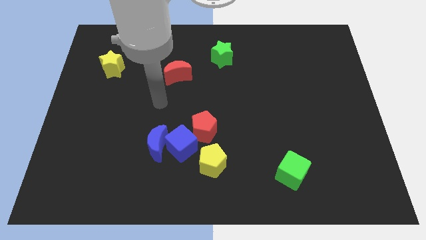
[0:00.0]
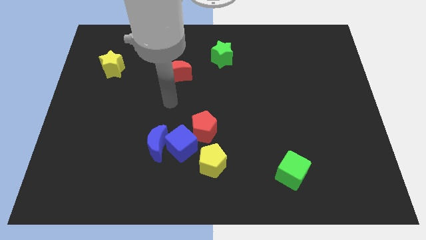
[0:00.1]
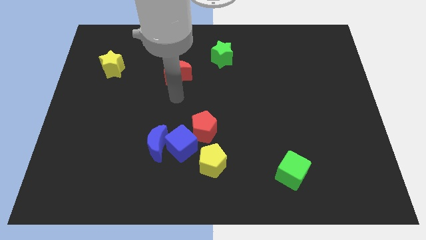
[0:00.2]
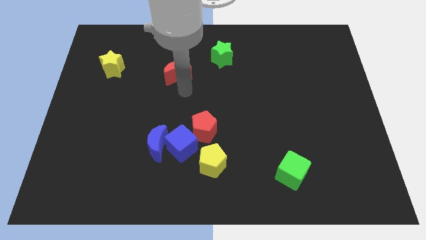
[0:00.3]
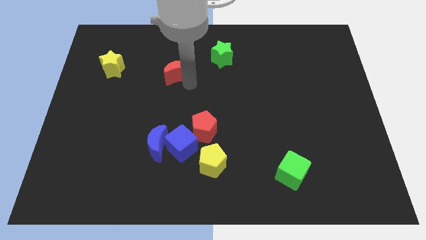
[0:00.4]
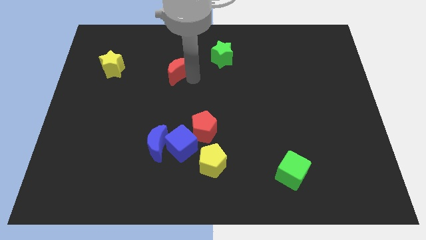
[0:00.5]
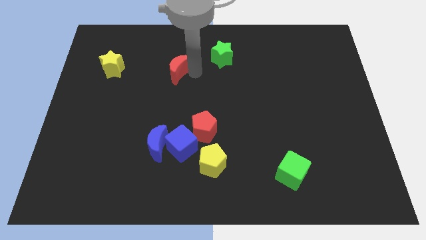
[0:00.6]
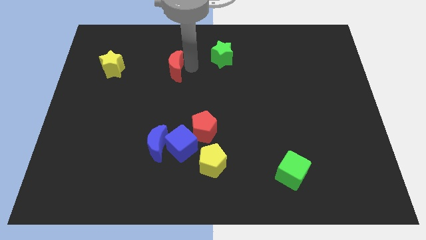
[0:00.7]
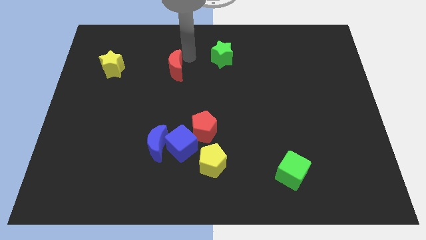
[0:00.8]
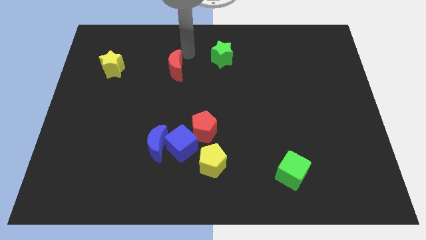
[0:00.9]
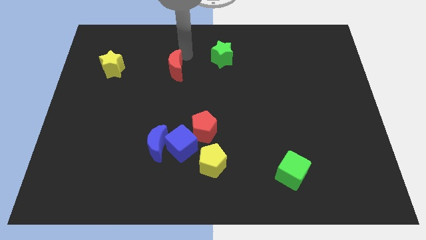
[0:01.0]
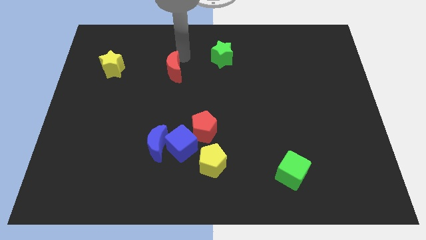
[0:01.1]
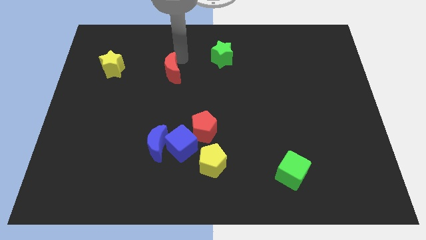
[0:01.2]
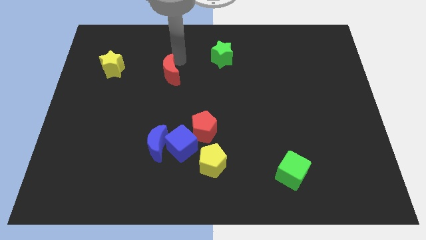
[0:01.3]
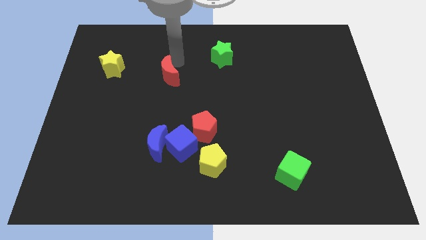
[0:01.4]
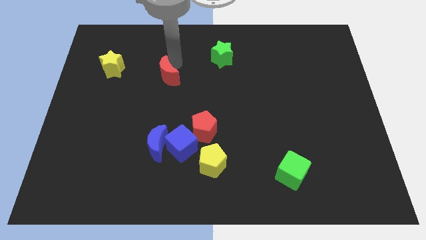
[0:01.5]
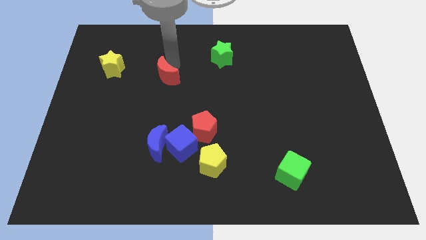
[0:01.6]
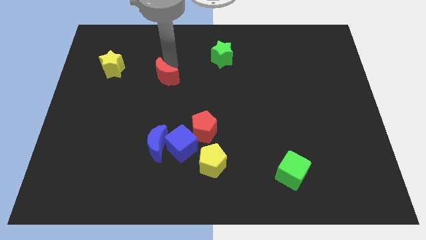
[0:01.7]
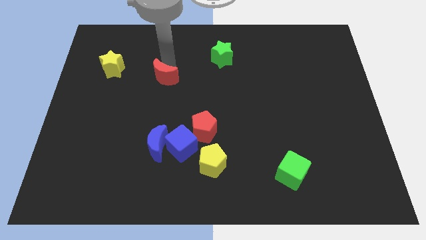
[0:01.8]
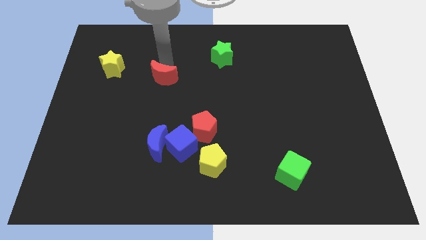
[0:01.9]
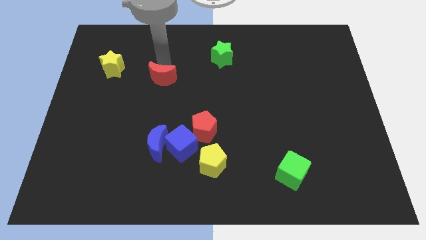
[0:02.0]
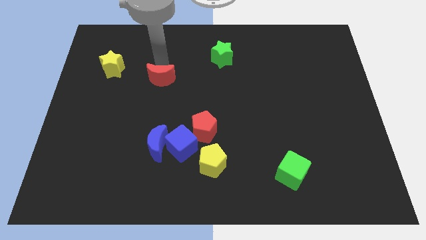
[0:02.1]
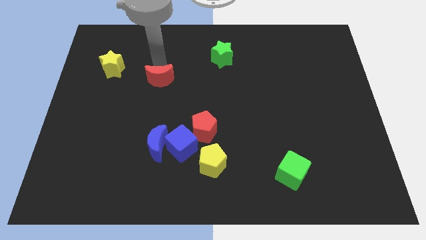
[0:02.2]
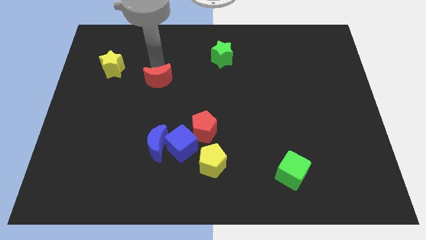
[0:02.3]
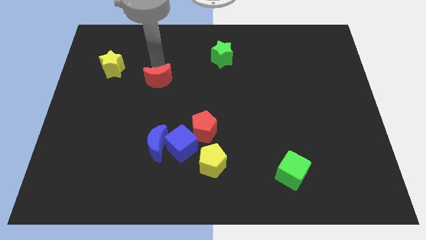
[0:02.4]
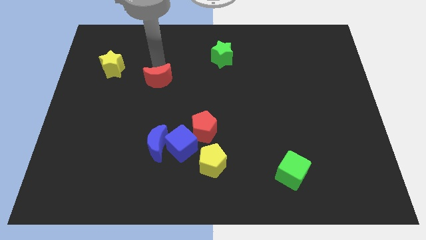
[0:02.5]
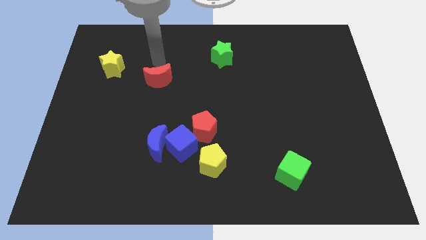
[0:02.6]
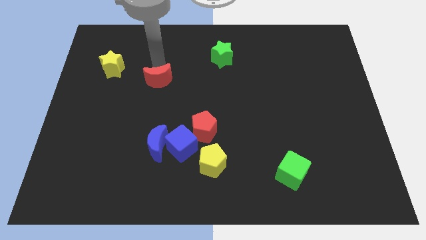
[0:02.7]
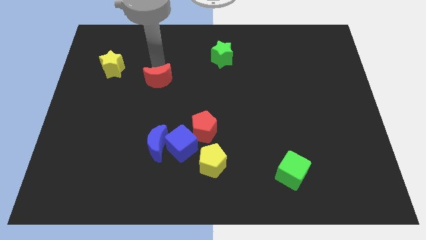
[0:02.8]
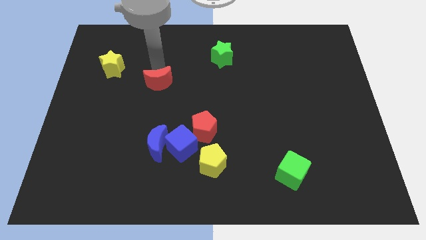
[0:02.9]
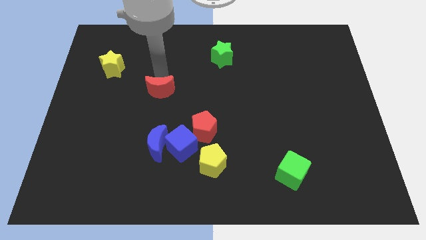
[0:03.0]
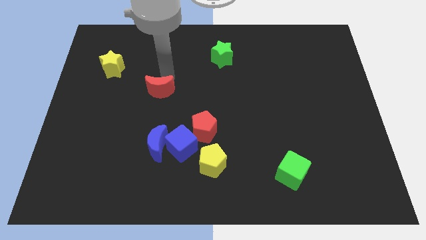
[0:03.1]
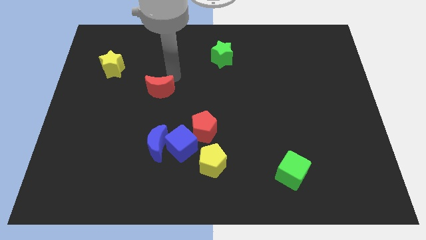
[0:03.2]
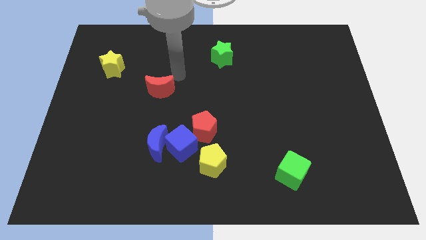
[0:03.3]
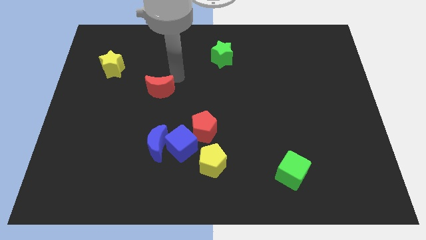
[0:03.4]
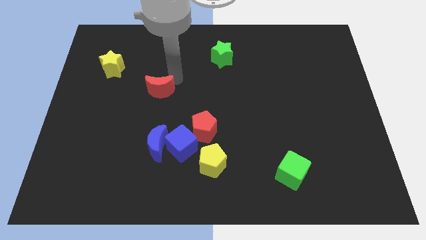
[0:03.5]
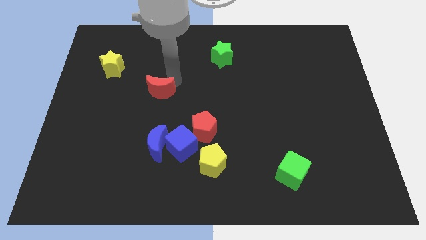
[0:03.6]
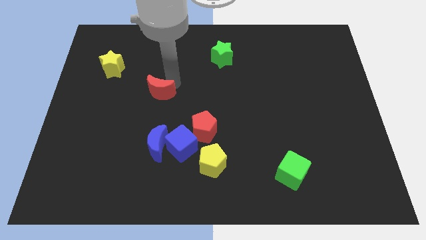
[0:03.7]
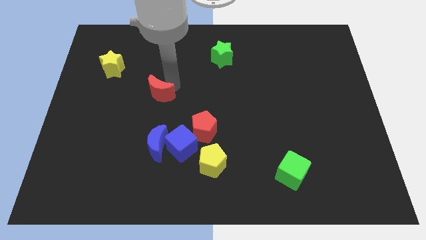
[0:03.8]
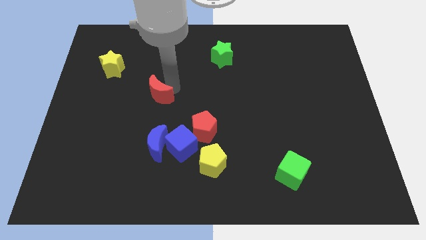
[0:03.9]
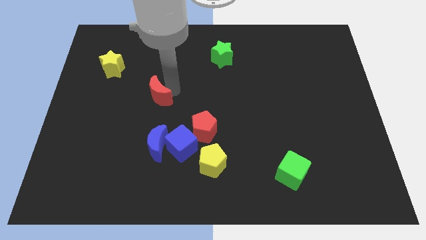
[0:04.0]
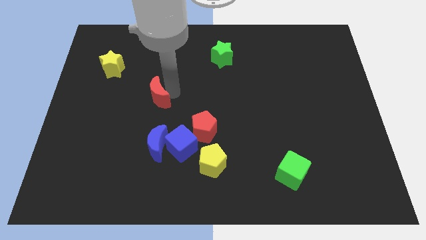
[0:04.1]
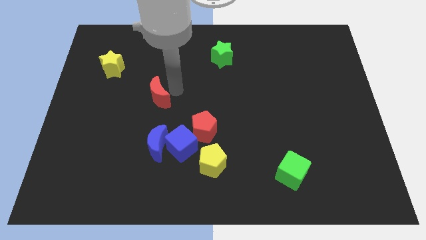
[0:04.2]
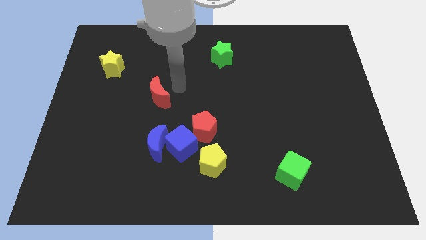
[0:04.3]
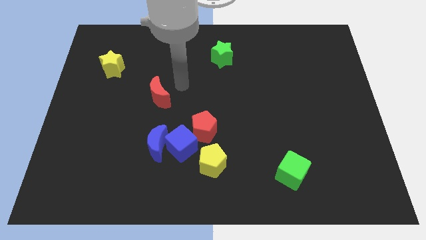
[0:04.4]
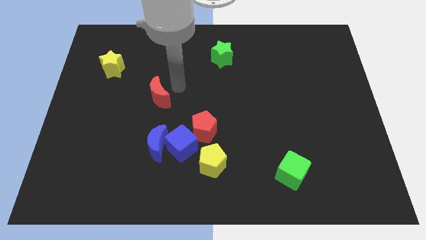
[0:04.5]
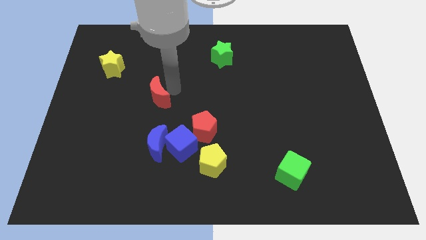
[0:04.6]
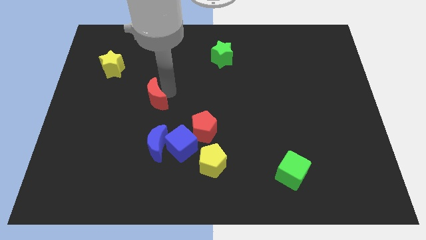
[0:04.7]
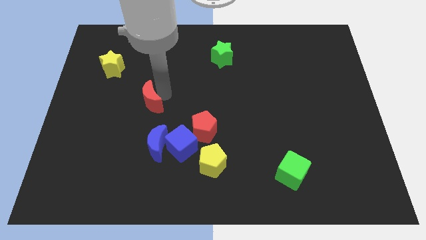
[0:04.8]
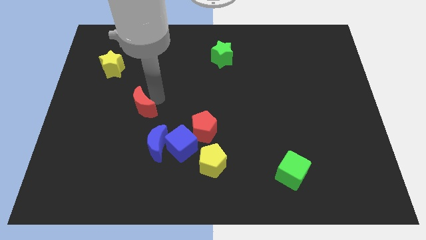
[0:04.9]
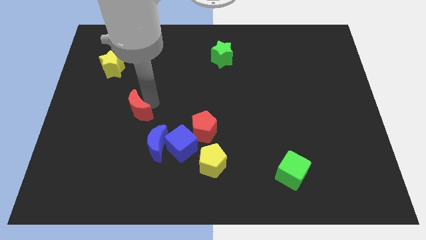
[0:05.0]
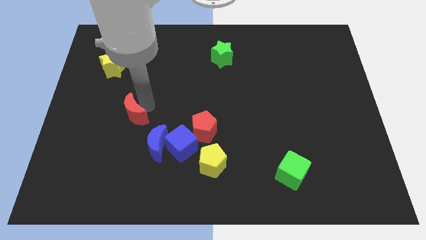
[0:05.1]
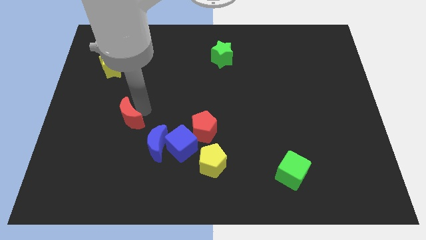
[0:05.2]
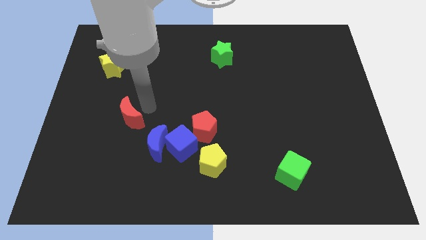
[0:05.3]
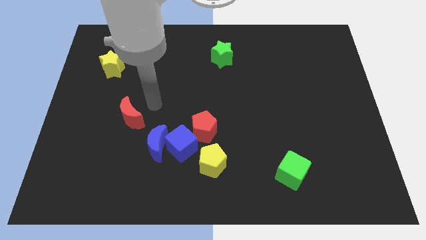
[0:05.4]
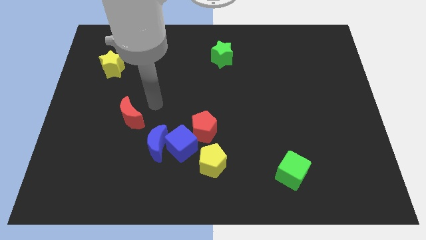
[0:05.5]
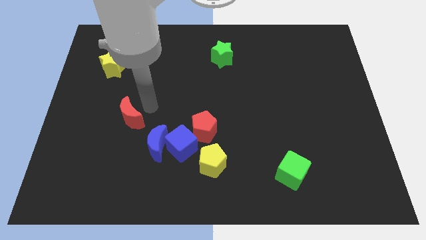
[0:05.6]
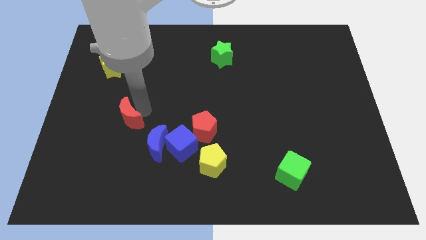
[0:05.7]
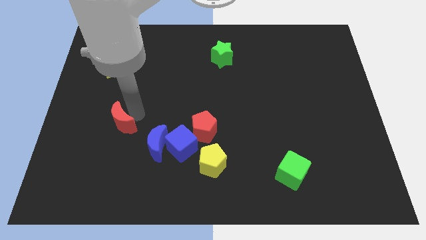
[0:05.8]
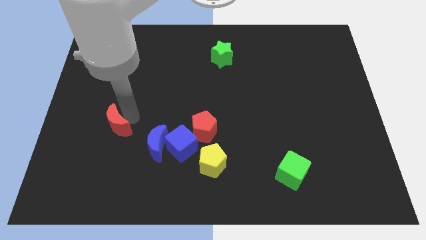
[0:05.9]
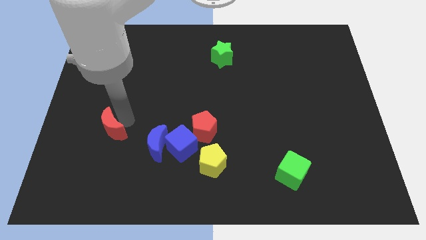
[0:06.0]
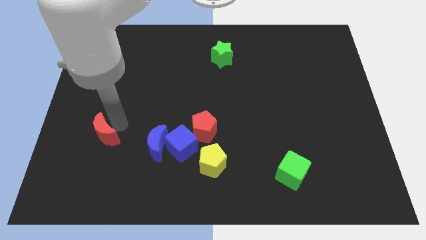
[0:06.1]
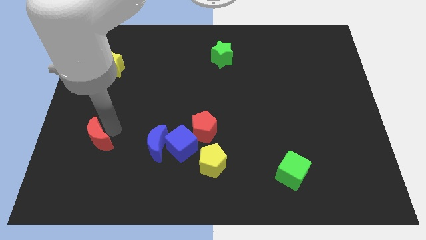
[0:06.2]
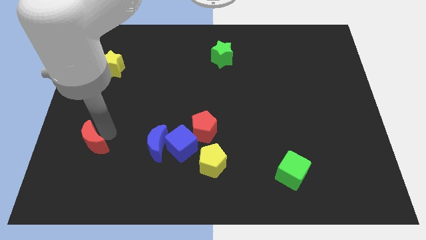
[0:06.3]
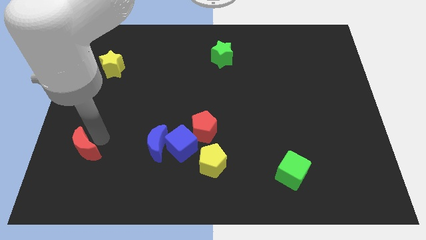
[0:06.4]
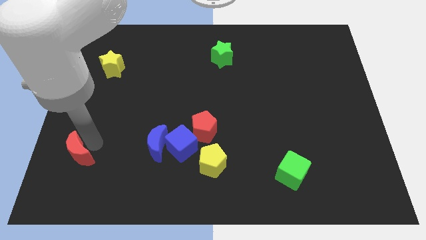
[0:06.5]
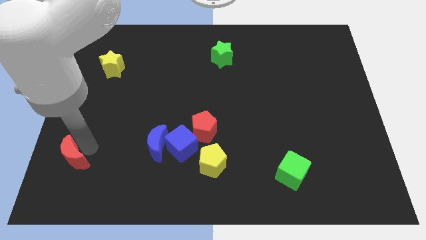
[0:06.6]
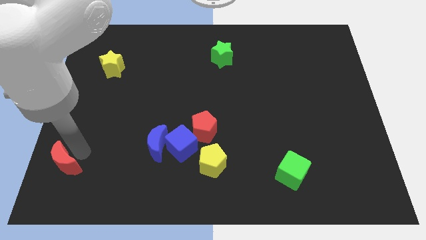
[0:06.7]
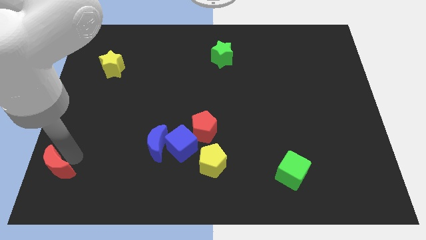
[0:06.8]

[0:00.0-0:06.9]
put the red moon to the bottom left corner
